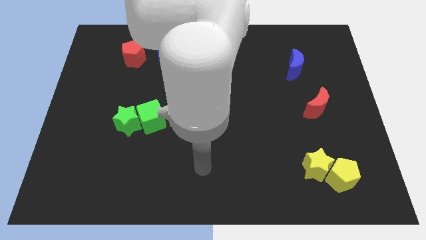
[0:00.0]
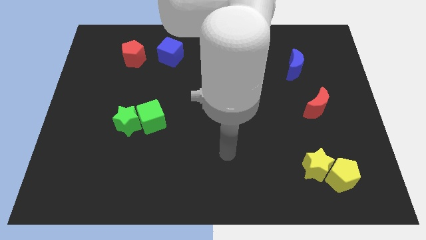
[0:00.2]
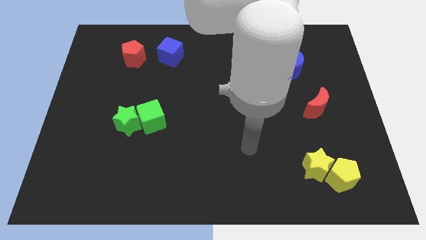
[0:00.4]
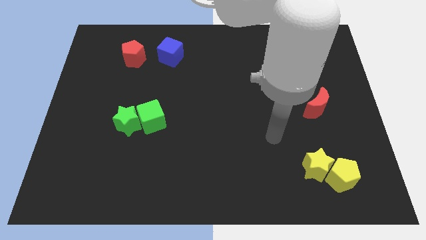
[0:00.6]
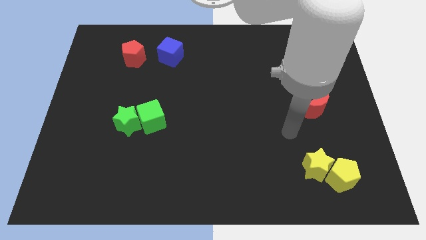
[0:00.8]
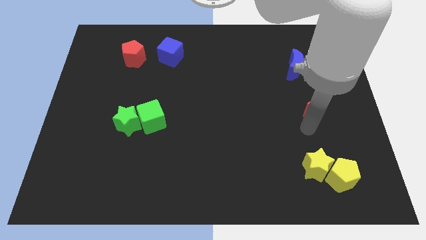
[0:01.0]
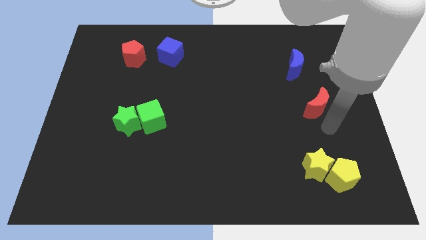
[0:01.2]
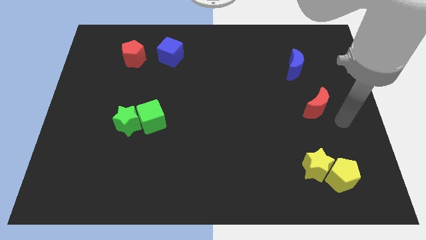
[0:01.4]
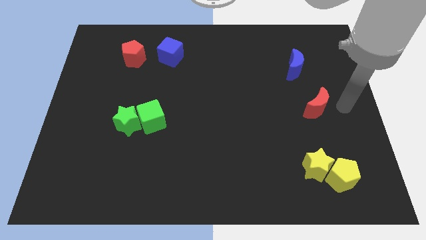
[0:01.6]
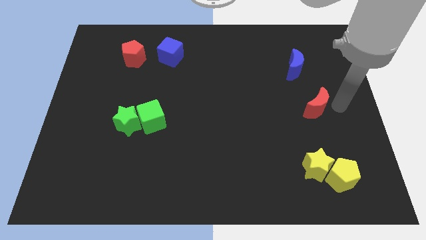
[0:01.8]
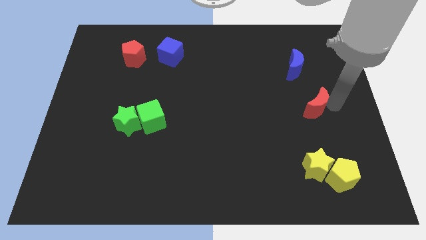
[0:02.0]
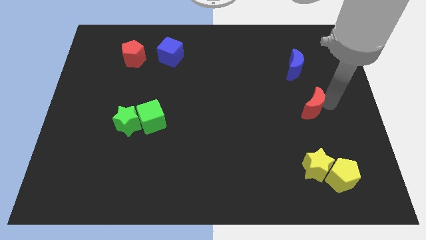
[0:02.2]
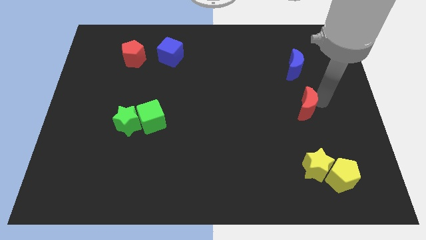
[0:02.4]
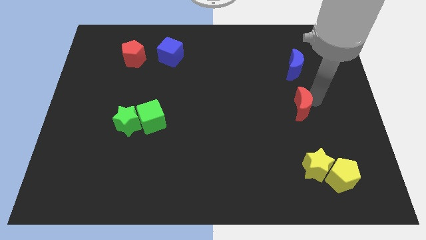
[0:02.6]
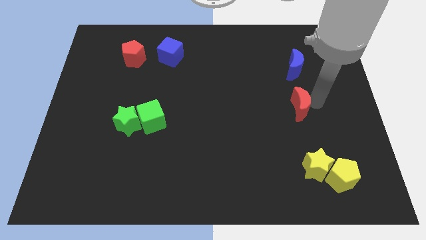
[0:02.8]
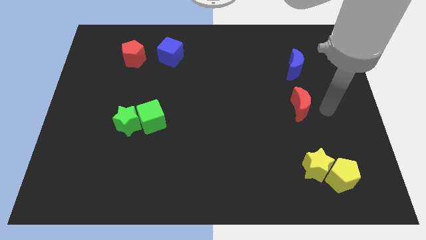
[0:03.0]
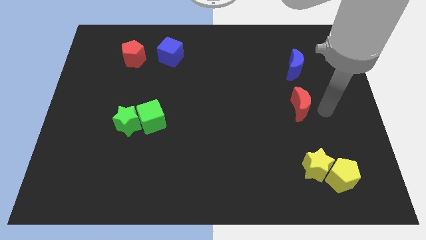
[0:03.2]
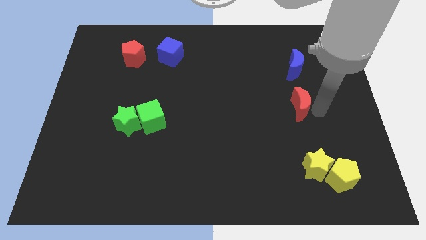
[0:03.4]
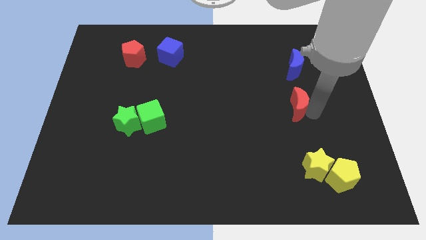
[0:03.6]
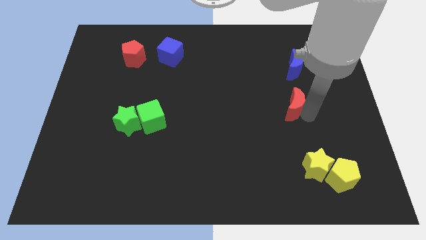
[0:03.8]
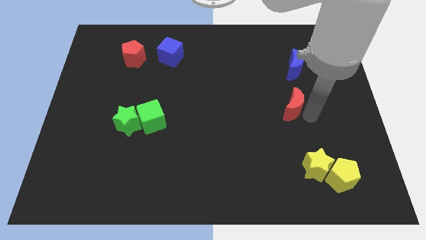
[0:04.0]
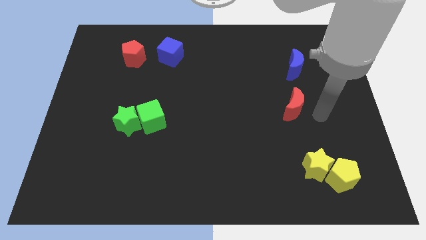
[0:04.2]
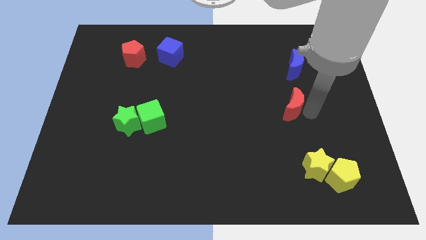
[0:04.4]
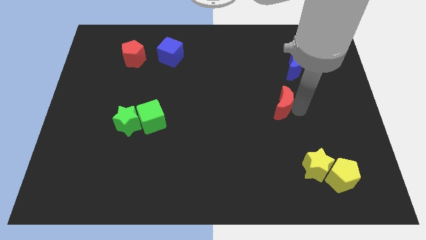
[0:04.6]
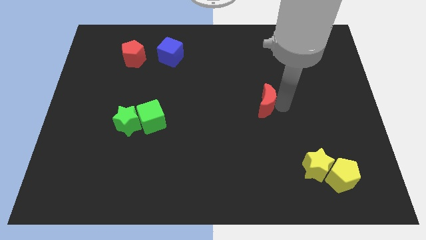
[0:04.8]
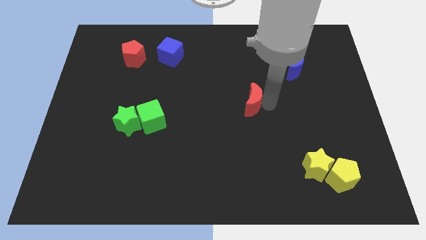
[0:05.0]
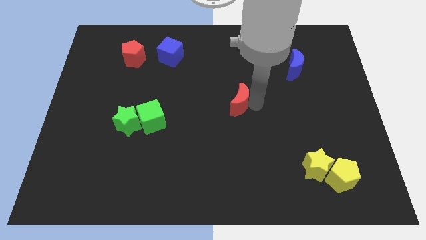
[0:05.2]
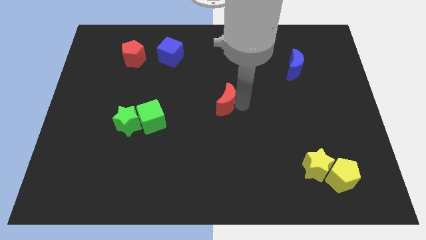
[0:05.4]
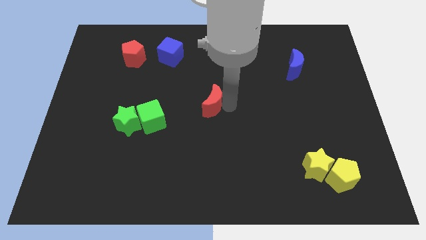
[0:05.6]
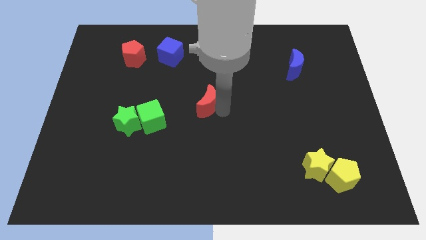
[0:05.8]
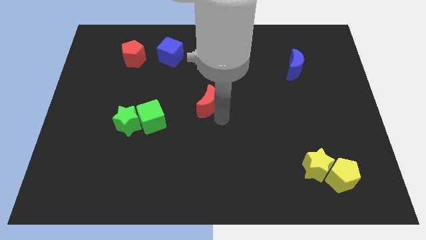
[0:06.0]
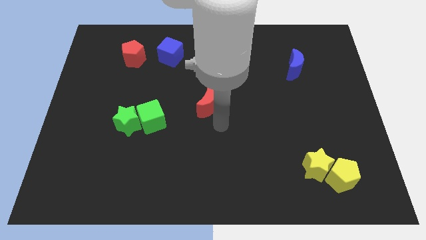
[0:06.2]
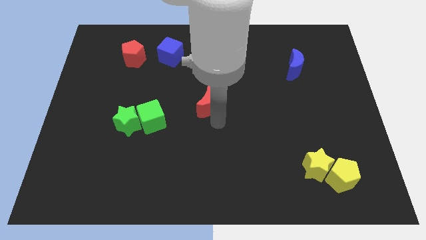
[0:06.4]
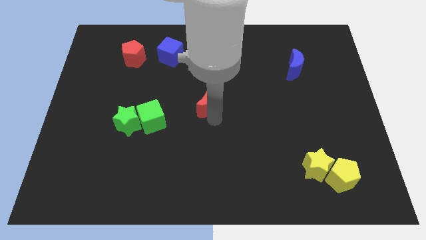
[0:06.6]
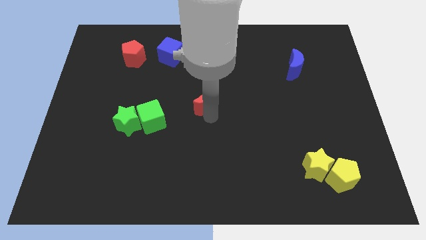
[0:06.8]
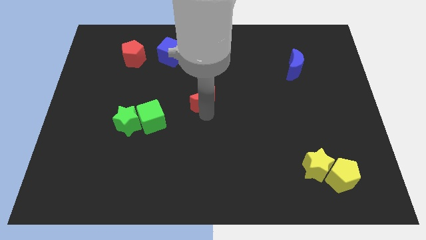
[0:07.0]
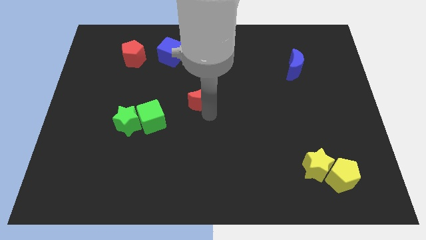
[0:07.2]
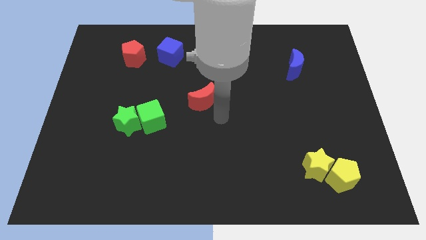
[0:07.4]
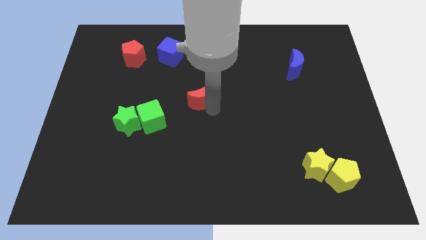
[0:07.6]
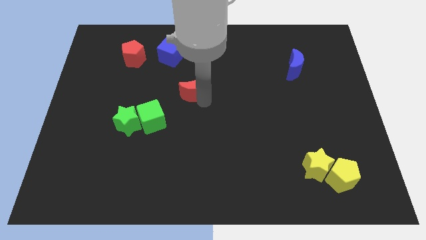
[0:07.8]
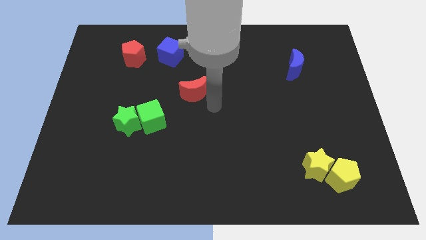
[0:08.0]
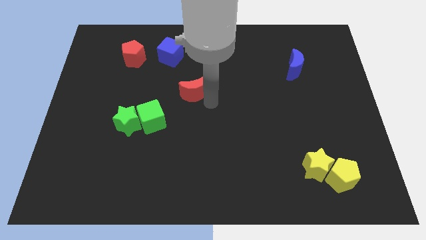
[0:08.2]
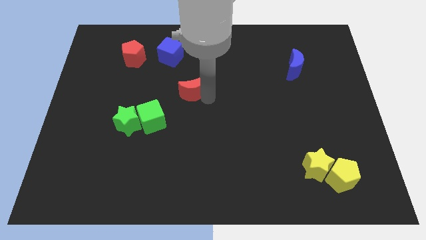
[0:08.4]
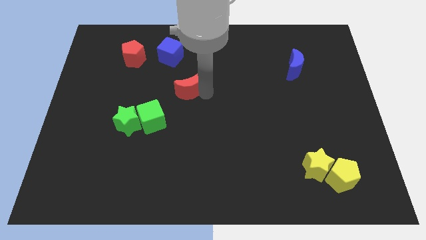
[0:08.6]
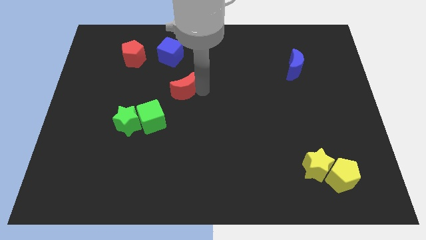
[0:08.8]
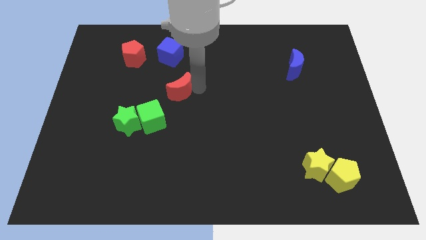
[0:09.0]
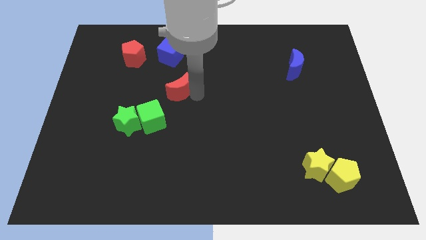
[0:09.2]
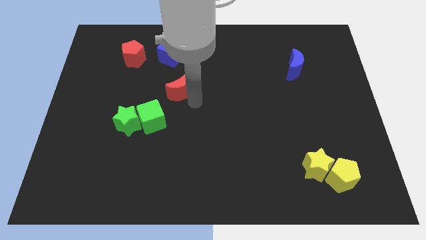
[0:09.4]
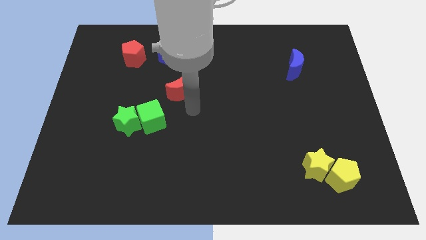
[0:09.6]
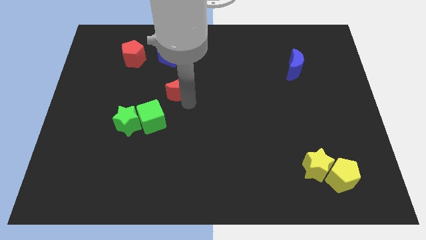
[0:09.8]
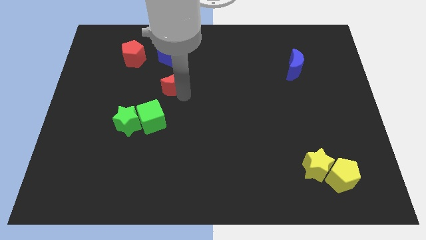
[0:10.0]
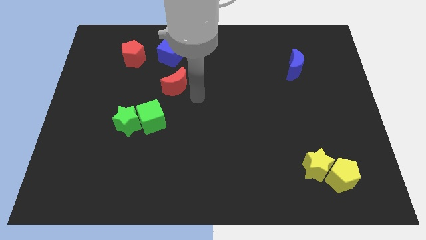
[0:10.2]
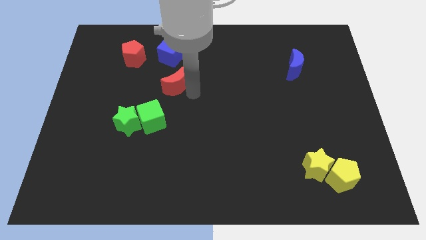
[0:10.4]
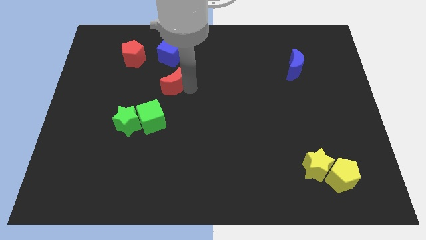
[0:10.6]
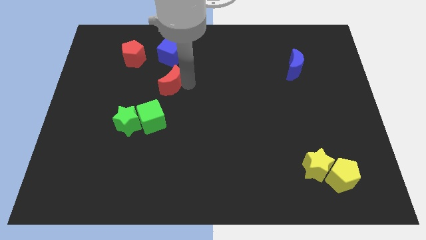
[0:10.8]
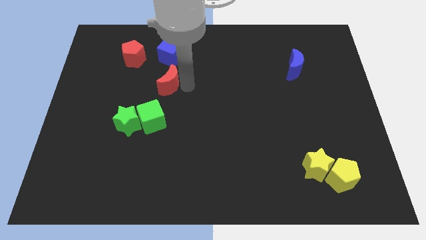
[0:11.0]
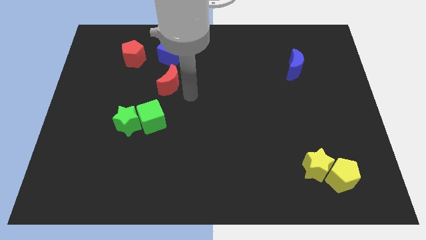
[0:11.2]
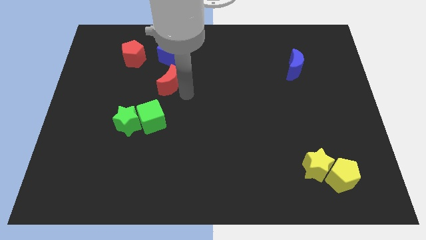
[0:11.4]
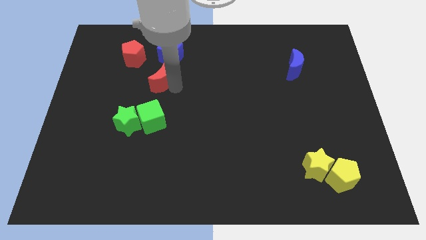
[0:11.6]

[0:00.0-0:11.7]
put the red moon to the bottom right side of the red pentagon
